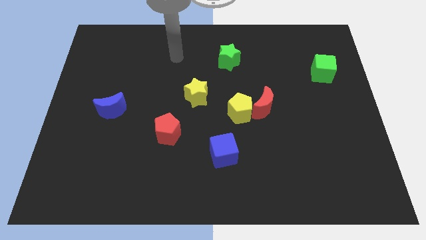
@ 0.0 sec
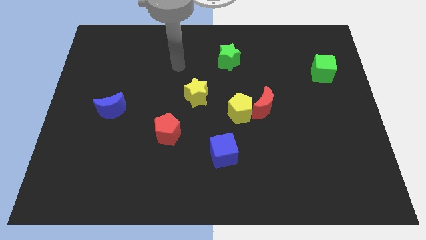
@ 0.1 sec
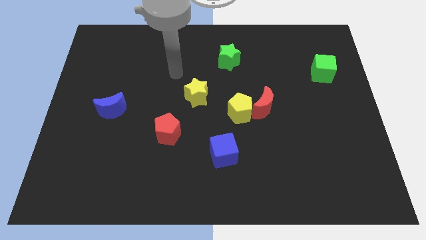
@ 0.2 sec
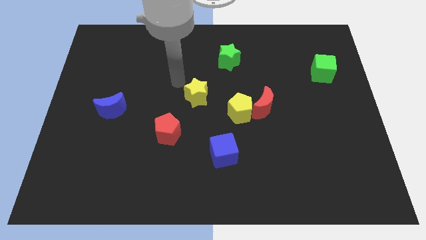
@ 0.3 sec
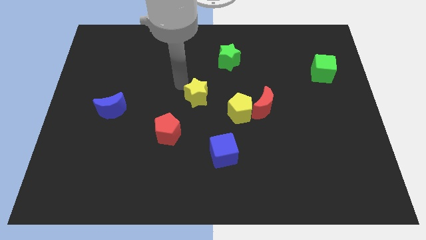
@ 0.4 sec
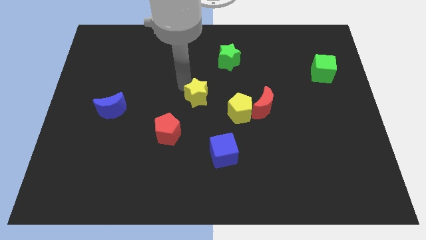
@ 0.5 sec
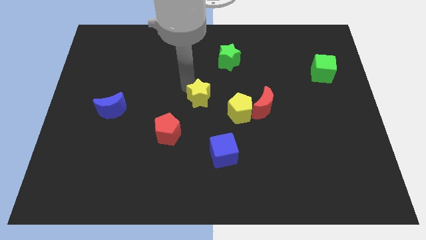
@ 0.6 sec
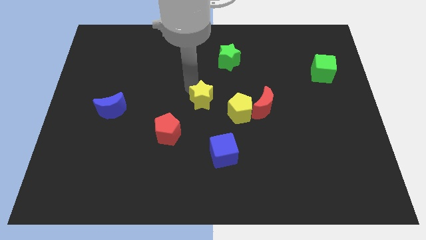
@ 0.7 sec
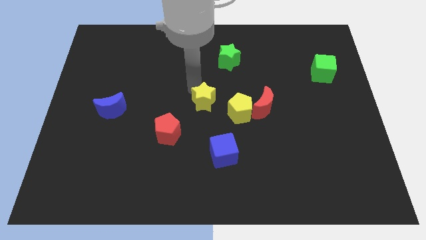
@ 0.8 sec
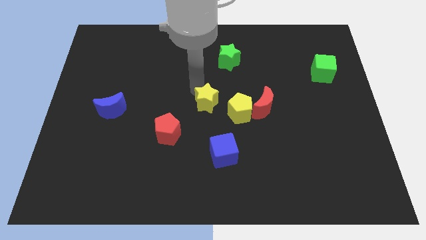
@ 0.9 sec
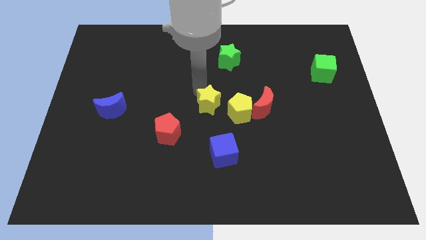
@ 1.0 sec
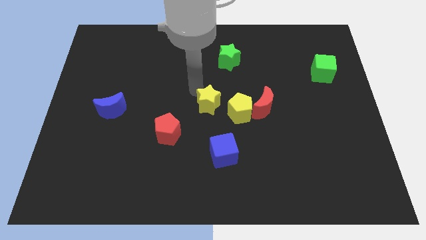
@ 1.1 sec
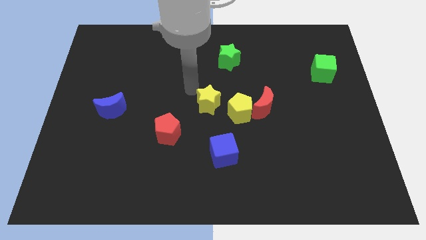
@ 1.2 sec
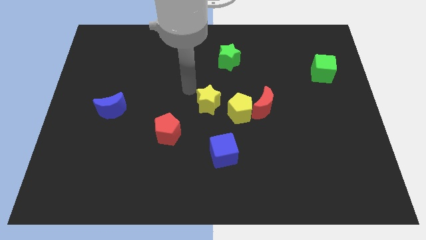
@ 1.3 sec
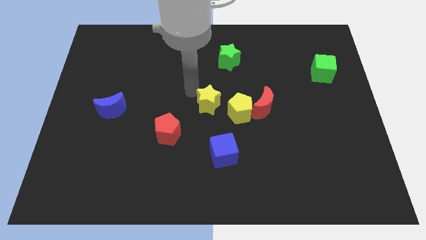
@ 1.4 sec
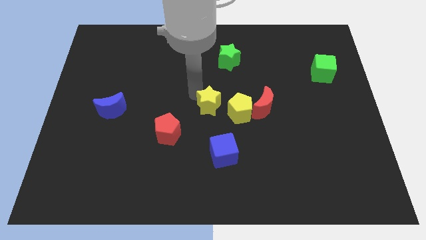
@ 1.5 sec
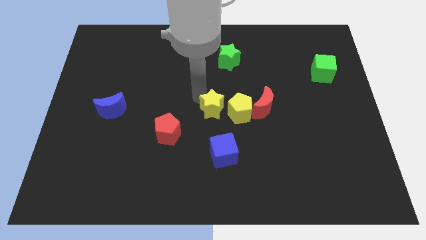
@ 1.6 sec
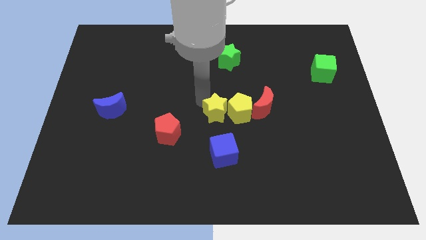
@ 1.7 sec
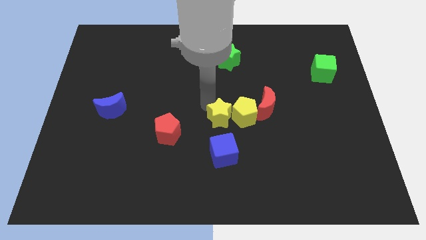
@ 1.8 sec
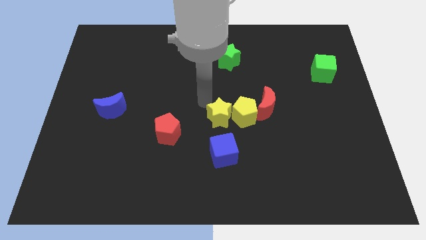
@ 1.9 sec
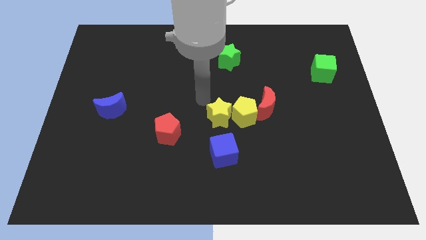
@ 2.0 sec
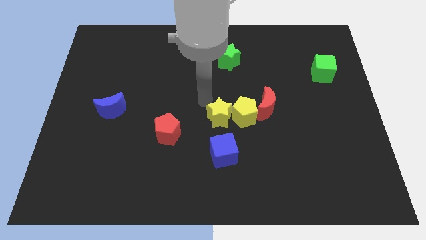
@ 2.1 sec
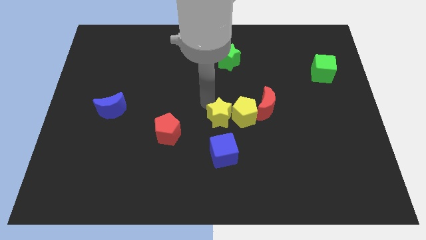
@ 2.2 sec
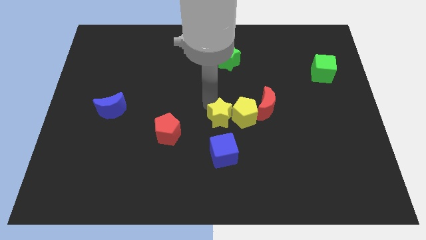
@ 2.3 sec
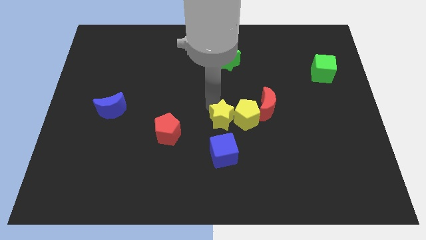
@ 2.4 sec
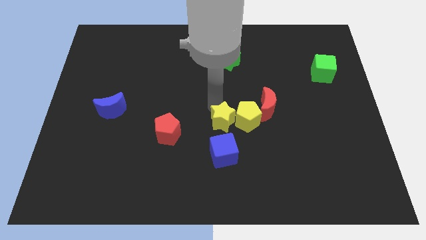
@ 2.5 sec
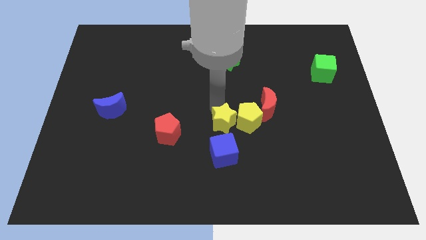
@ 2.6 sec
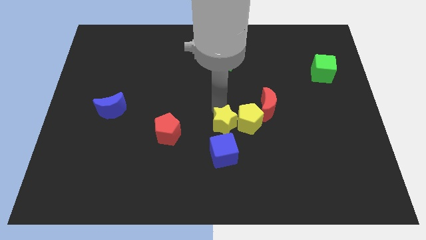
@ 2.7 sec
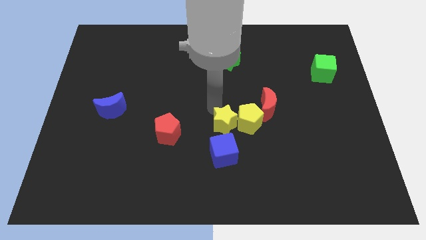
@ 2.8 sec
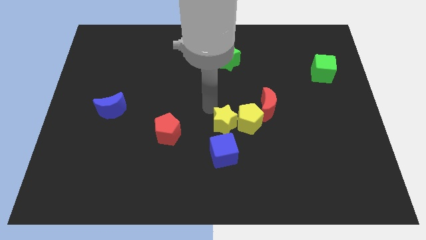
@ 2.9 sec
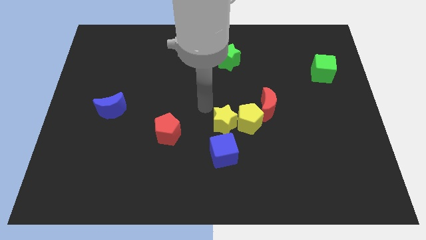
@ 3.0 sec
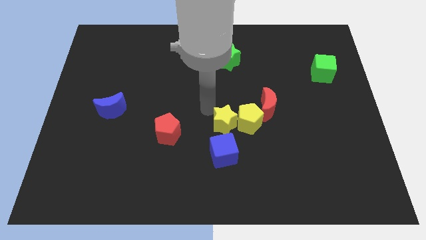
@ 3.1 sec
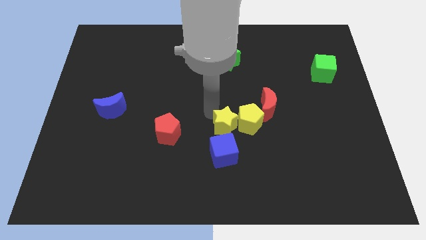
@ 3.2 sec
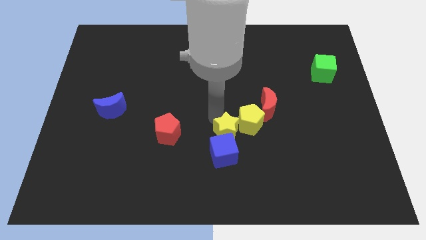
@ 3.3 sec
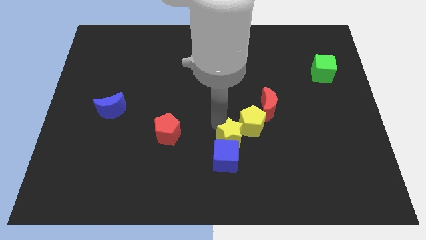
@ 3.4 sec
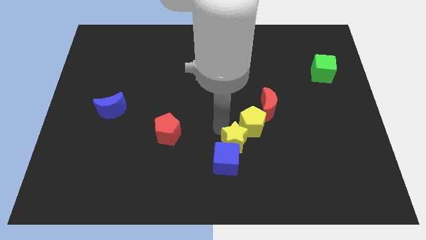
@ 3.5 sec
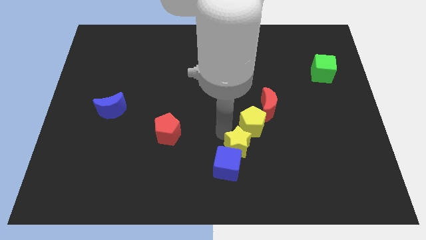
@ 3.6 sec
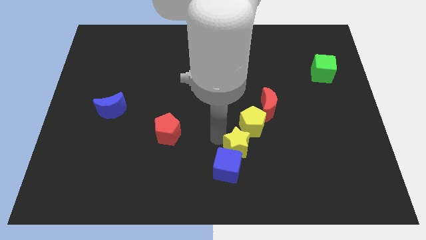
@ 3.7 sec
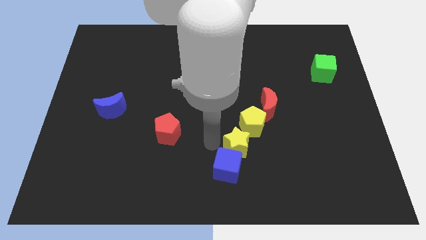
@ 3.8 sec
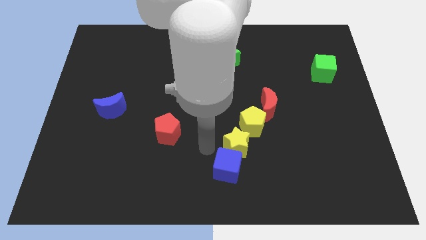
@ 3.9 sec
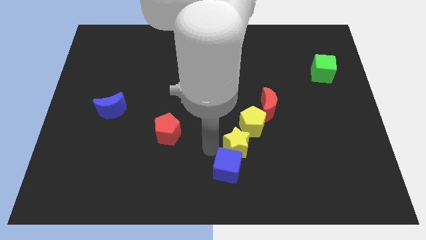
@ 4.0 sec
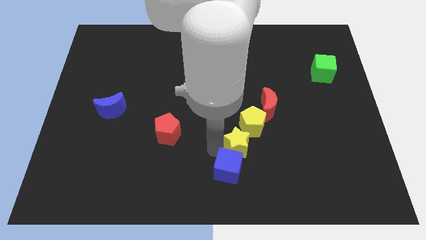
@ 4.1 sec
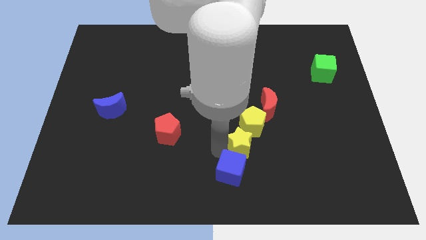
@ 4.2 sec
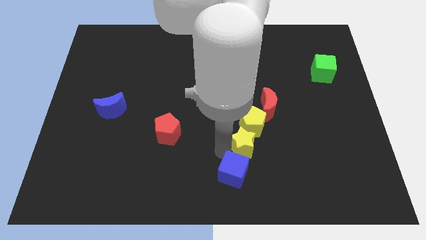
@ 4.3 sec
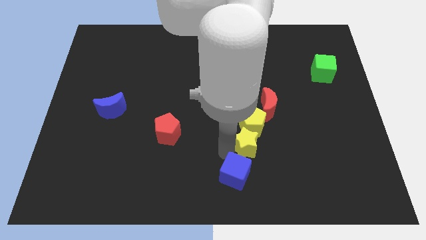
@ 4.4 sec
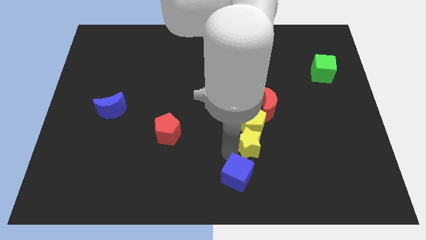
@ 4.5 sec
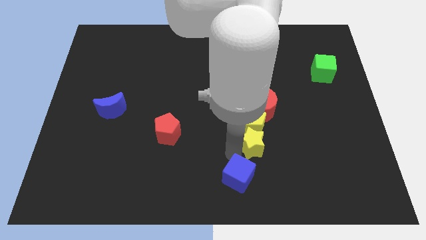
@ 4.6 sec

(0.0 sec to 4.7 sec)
move the yellow star to the bottom of the red moon

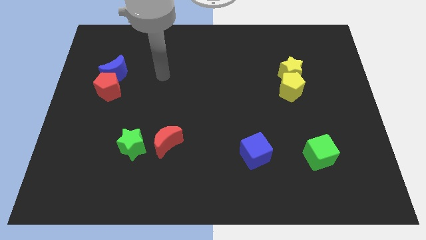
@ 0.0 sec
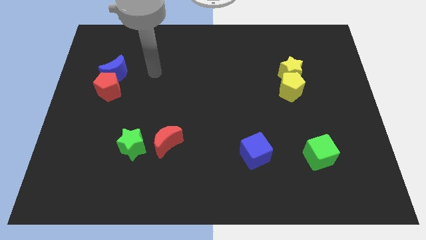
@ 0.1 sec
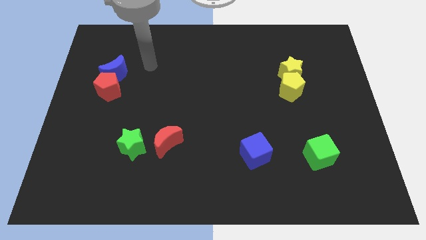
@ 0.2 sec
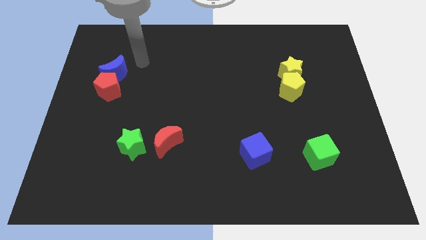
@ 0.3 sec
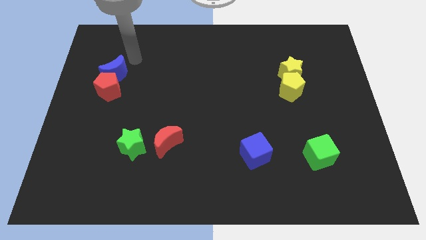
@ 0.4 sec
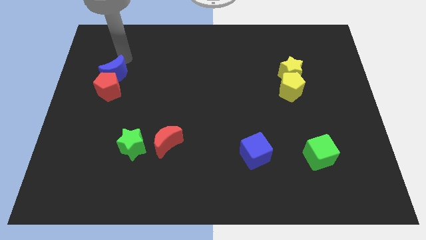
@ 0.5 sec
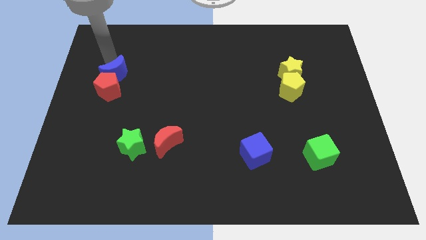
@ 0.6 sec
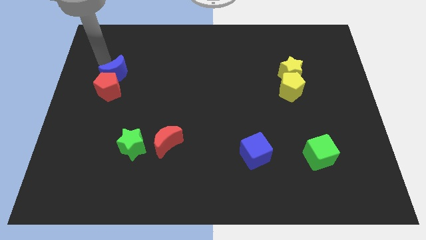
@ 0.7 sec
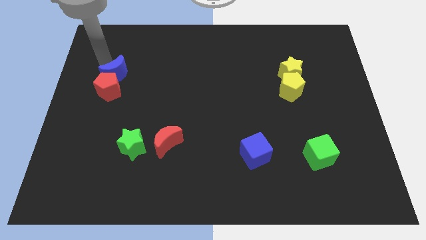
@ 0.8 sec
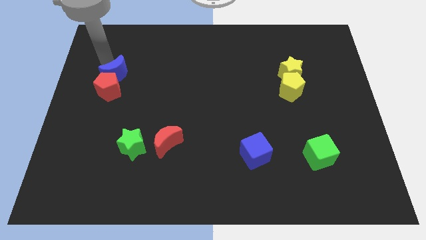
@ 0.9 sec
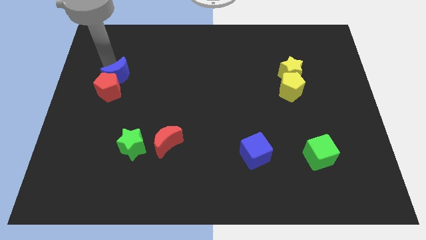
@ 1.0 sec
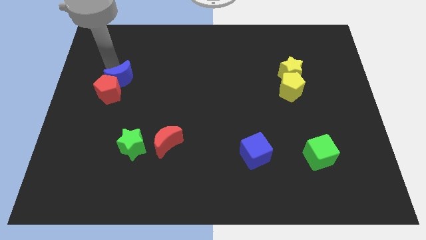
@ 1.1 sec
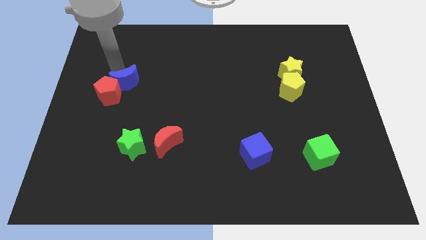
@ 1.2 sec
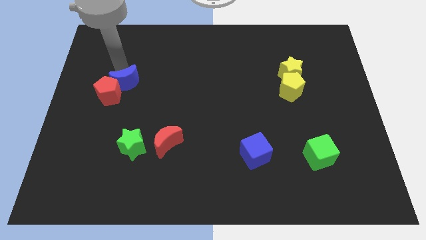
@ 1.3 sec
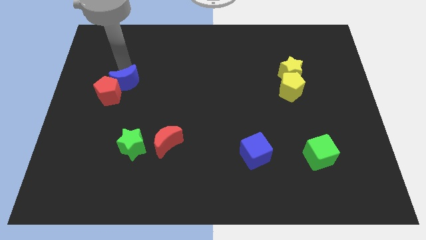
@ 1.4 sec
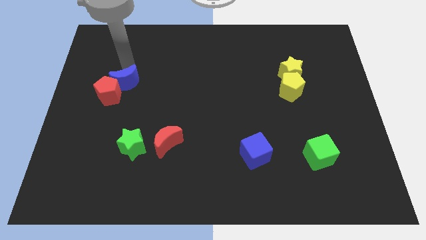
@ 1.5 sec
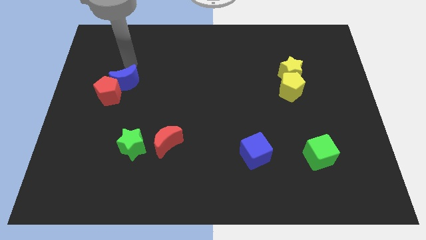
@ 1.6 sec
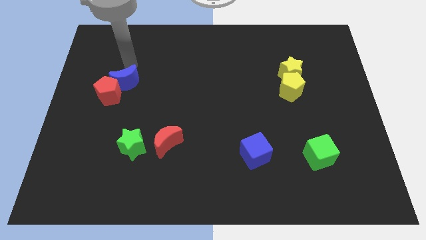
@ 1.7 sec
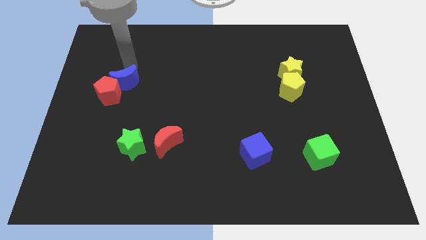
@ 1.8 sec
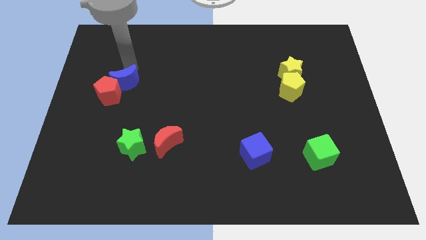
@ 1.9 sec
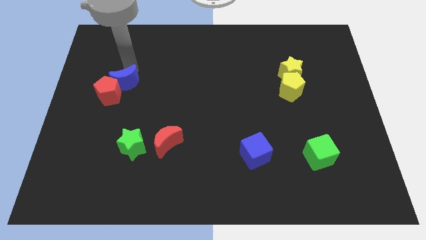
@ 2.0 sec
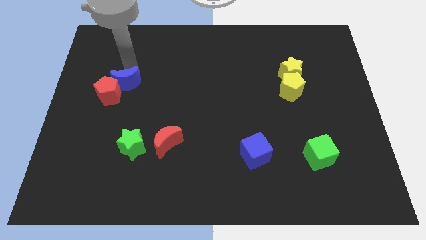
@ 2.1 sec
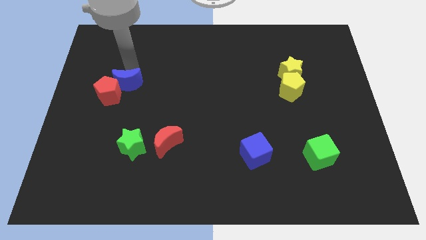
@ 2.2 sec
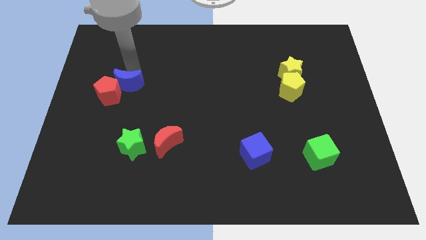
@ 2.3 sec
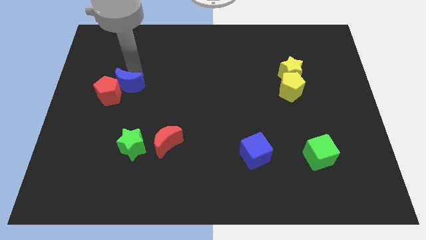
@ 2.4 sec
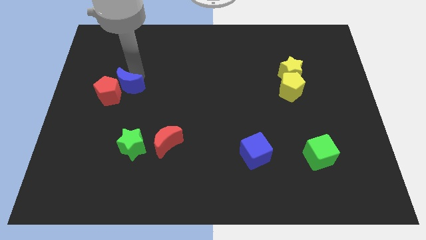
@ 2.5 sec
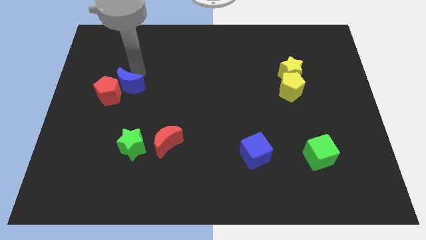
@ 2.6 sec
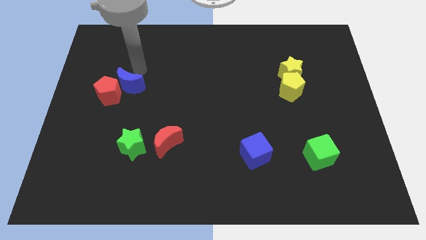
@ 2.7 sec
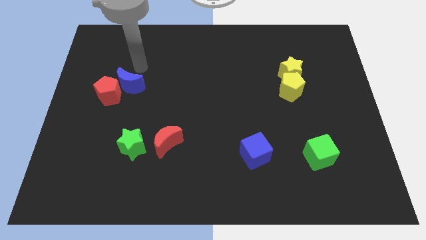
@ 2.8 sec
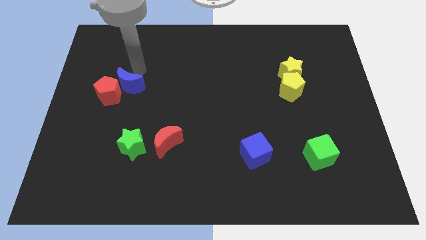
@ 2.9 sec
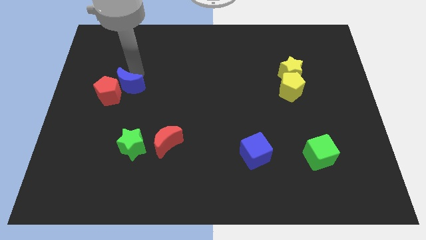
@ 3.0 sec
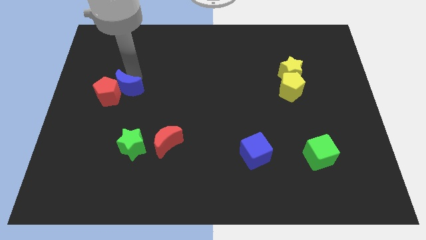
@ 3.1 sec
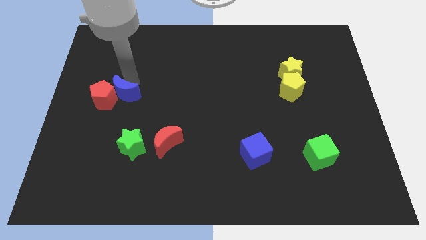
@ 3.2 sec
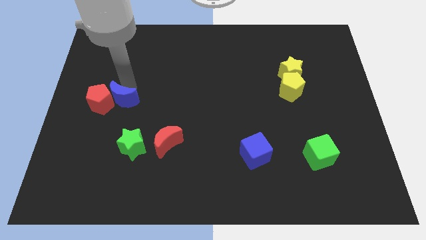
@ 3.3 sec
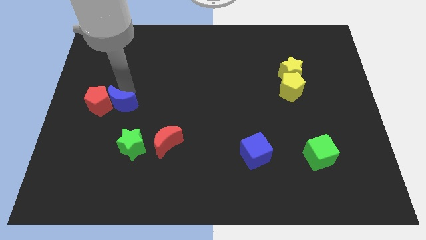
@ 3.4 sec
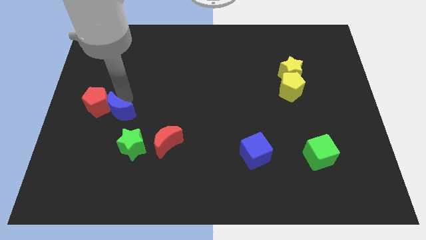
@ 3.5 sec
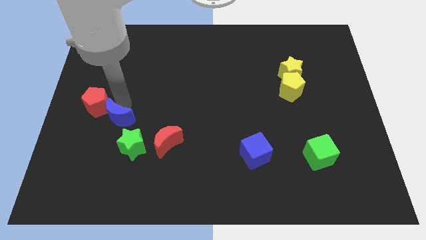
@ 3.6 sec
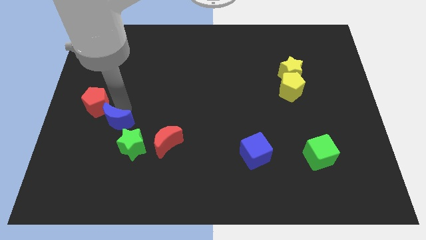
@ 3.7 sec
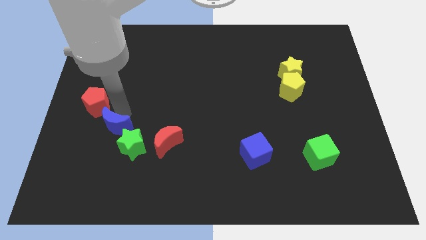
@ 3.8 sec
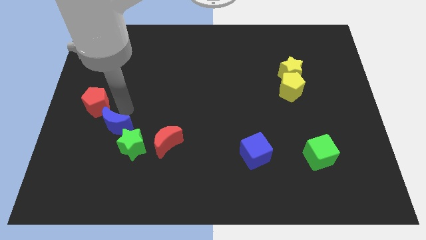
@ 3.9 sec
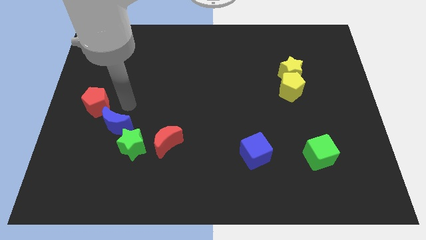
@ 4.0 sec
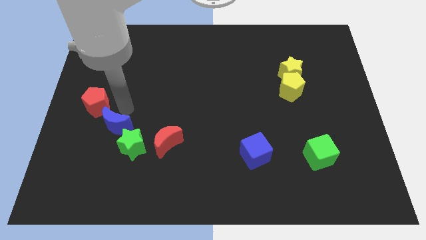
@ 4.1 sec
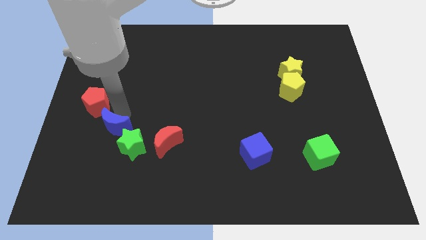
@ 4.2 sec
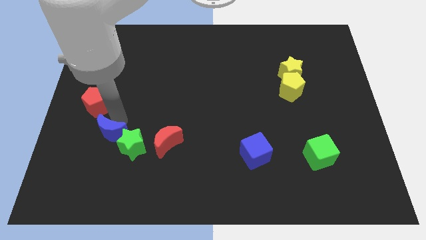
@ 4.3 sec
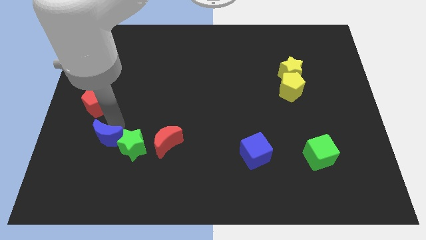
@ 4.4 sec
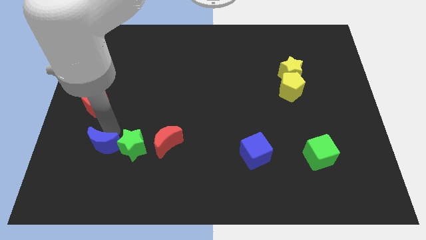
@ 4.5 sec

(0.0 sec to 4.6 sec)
push the blue moon to the bottom left side of the green star
